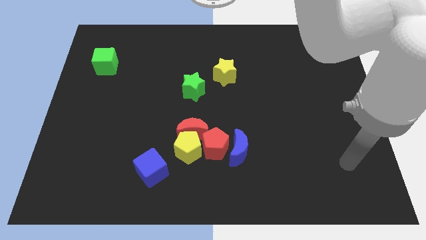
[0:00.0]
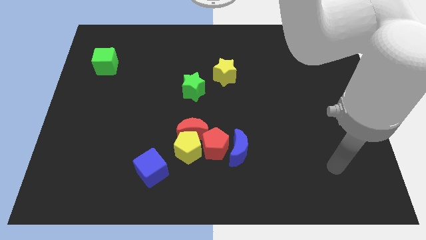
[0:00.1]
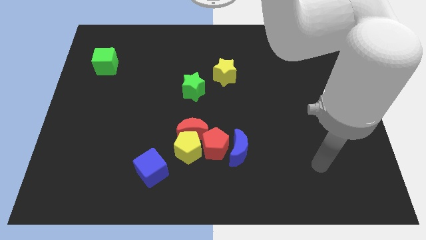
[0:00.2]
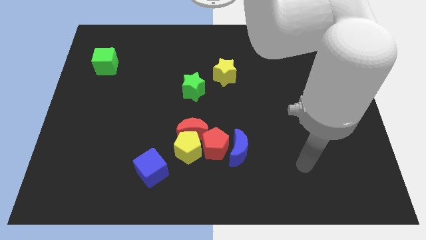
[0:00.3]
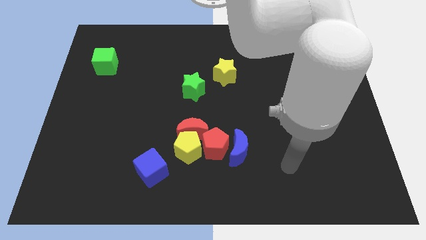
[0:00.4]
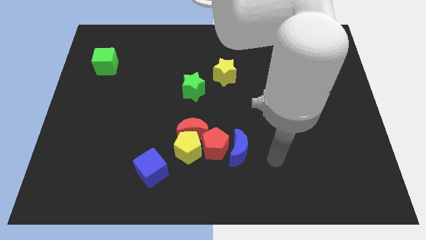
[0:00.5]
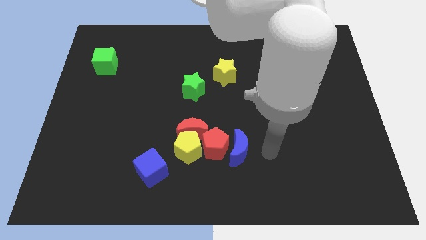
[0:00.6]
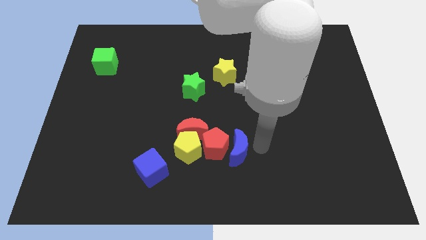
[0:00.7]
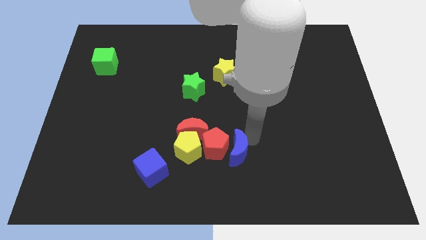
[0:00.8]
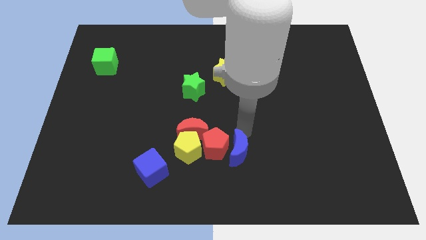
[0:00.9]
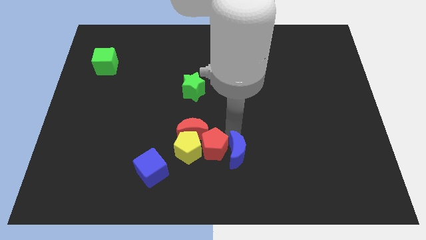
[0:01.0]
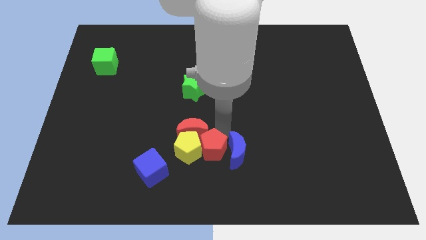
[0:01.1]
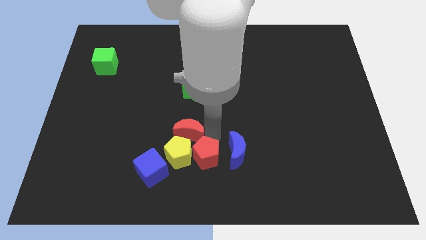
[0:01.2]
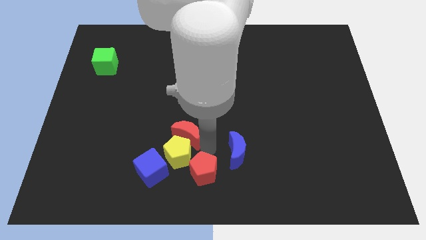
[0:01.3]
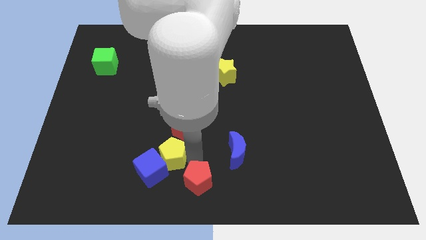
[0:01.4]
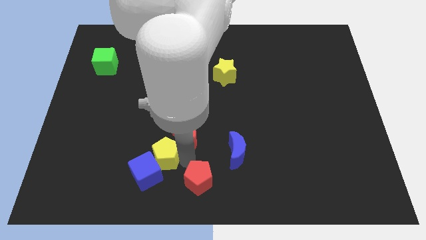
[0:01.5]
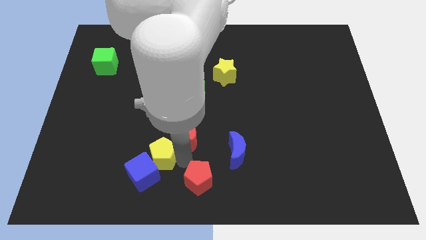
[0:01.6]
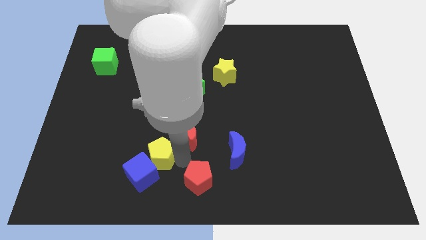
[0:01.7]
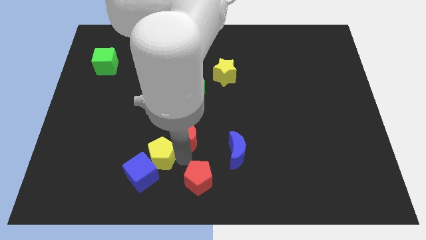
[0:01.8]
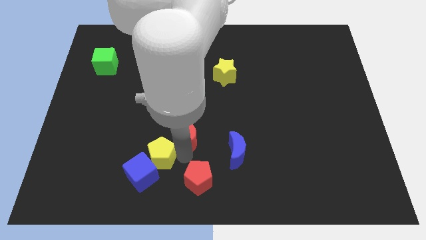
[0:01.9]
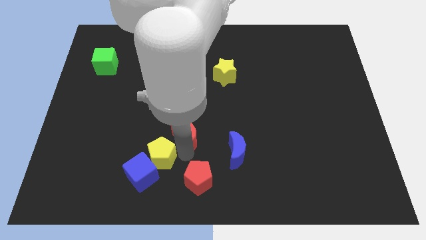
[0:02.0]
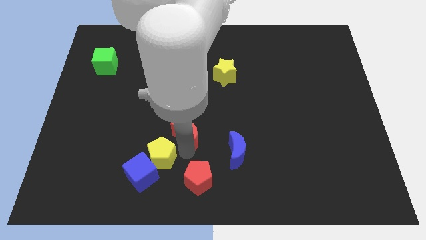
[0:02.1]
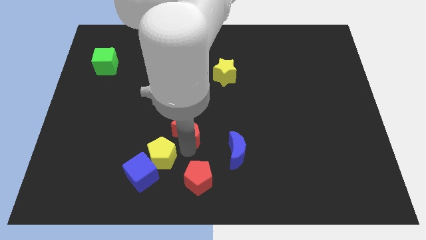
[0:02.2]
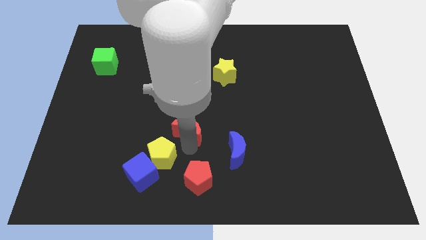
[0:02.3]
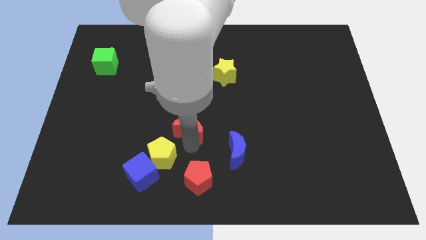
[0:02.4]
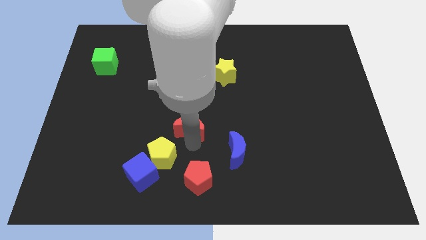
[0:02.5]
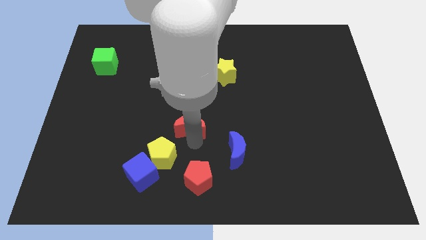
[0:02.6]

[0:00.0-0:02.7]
pull the red moon apart from the yellow pentagon and red pentagon

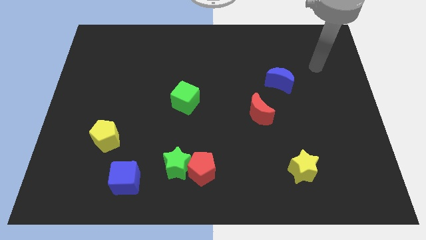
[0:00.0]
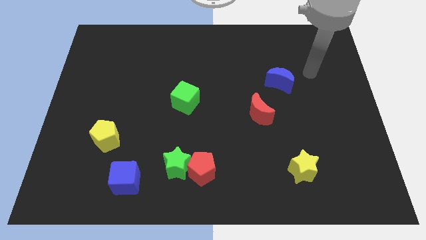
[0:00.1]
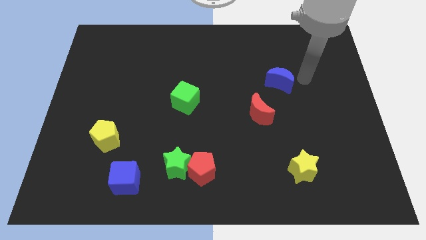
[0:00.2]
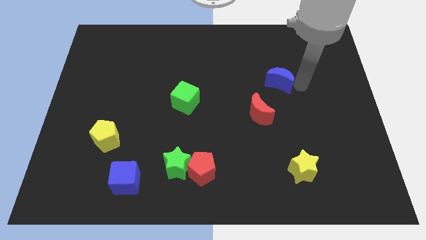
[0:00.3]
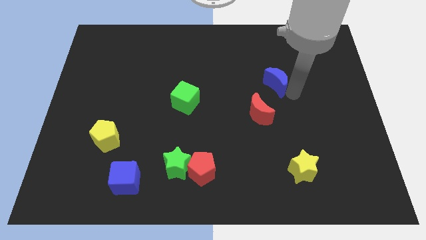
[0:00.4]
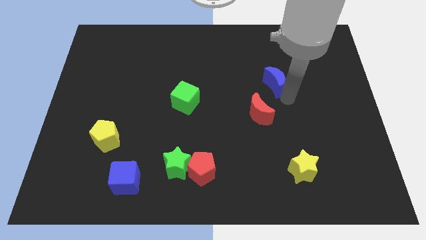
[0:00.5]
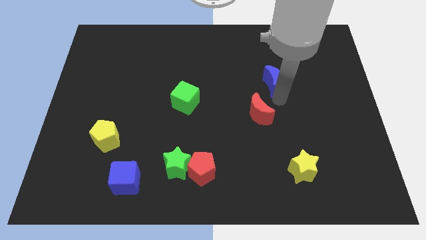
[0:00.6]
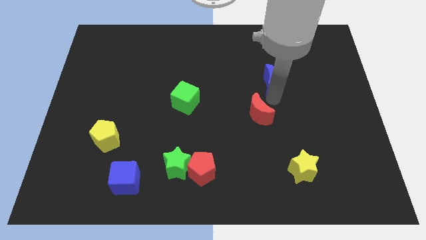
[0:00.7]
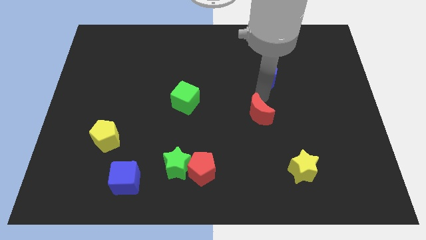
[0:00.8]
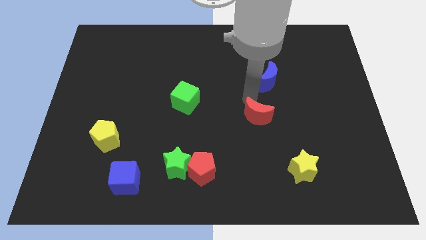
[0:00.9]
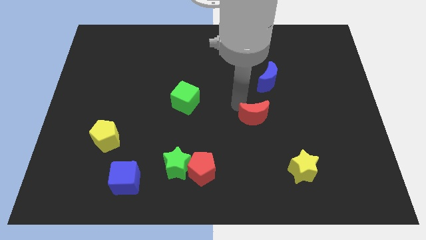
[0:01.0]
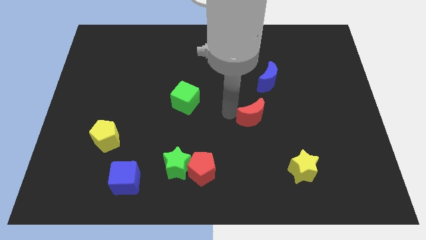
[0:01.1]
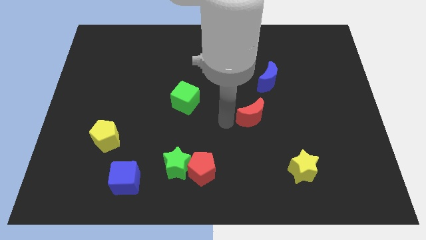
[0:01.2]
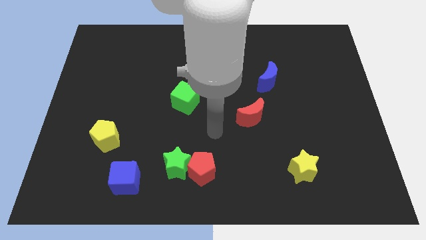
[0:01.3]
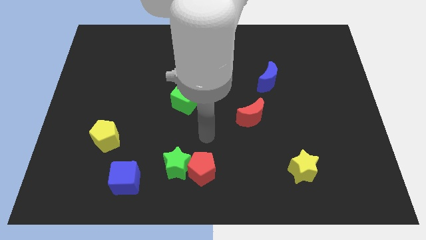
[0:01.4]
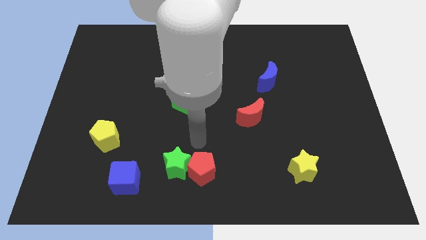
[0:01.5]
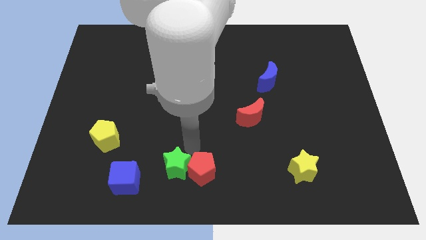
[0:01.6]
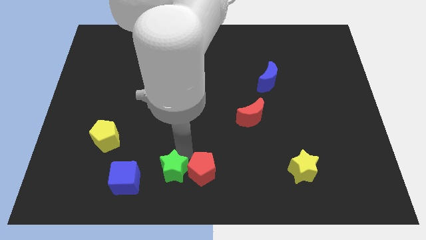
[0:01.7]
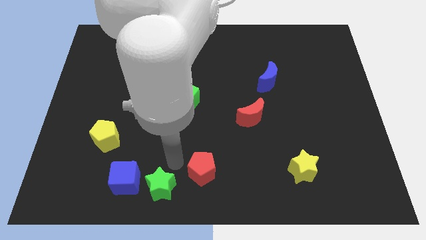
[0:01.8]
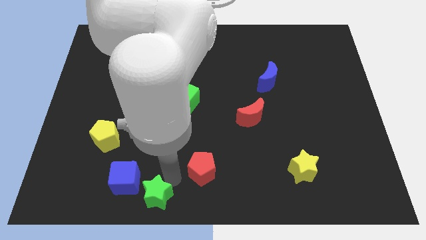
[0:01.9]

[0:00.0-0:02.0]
pull the red pentagon apart from the green star

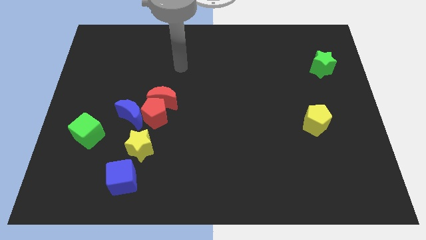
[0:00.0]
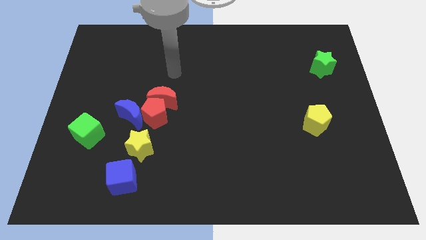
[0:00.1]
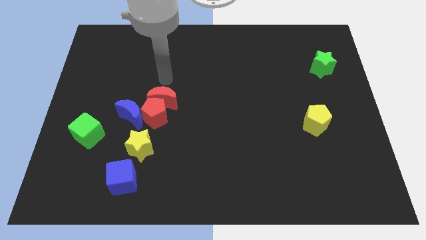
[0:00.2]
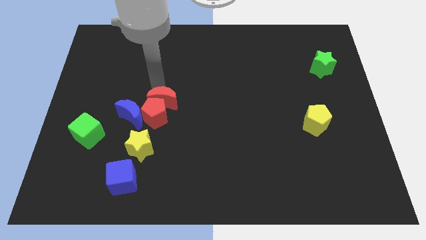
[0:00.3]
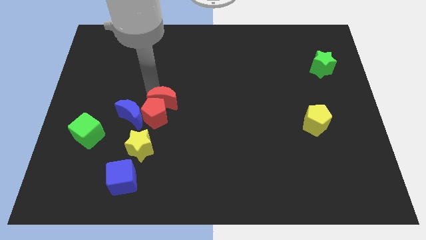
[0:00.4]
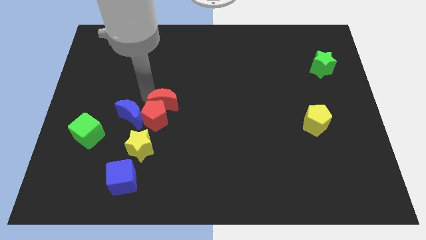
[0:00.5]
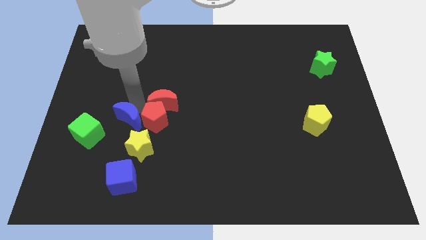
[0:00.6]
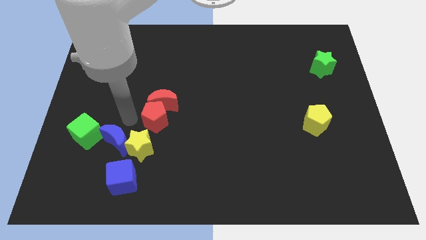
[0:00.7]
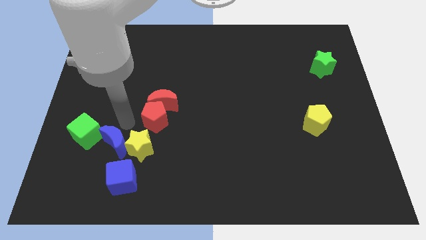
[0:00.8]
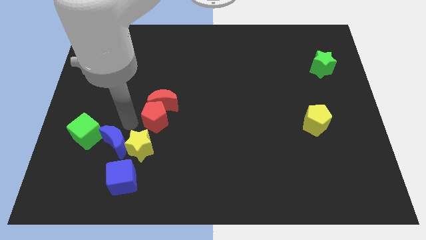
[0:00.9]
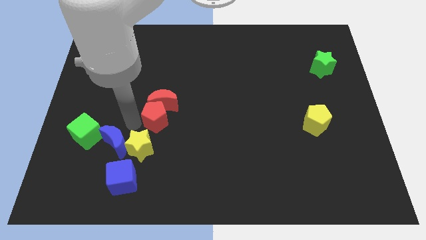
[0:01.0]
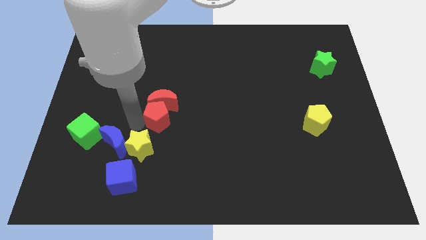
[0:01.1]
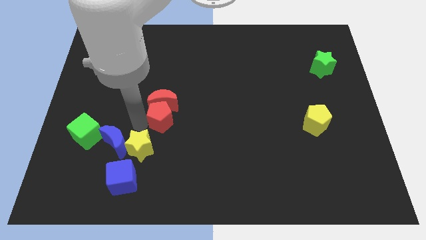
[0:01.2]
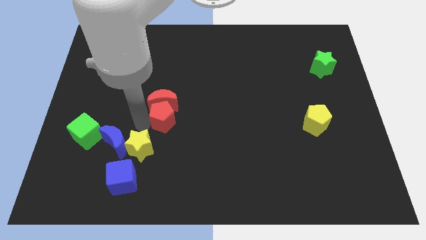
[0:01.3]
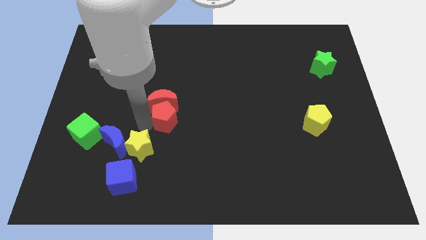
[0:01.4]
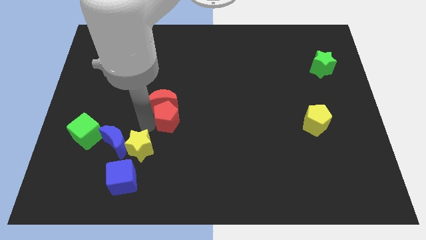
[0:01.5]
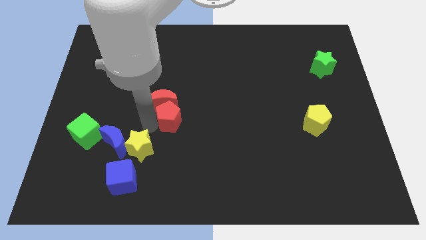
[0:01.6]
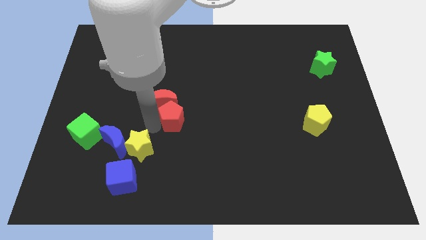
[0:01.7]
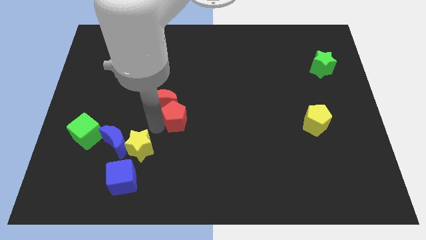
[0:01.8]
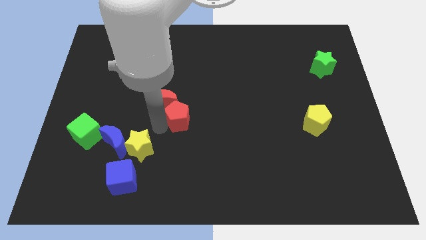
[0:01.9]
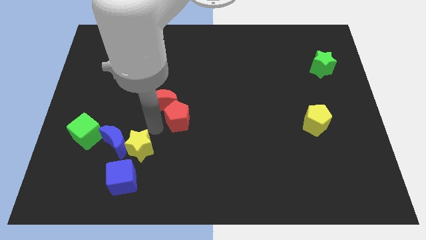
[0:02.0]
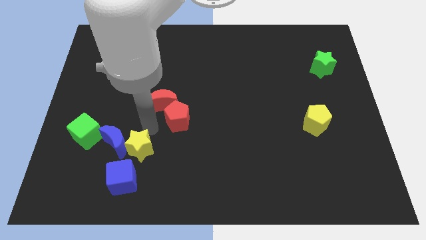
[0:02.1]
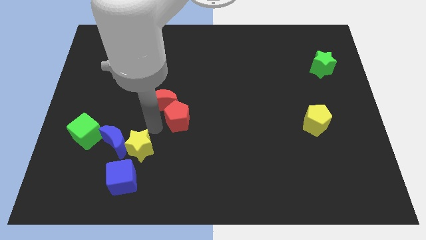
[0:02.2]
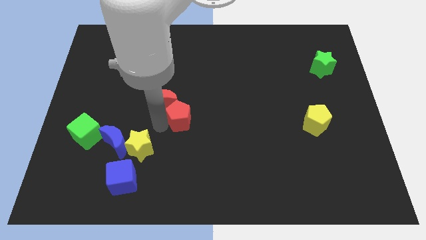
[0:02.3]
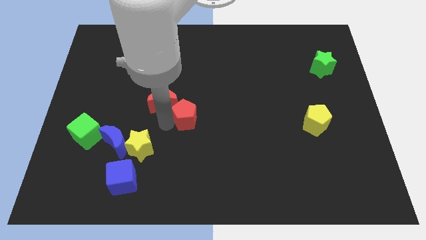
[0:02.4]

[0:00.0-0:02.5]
pull the red pentagon apart from the red moon, blue moon, and yellow star

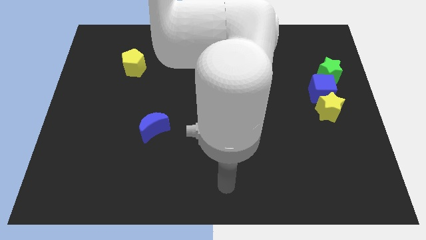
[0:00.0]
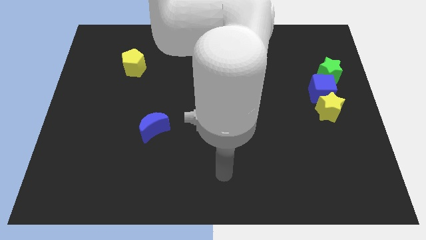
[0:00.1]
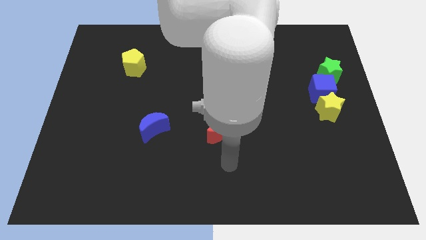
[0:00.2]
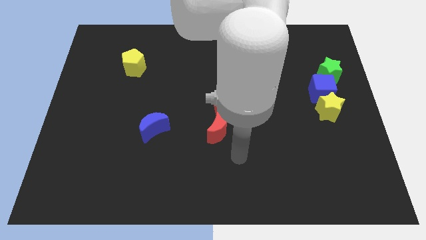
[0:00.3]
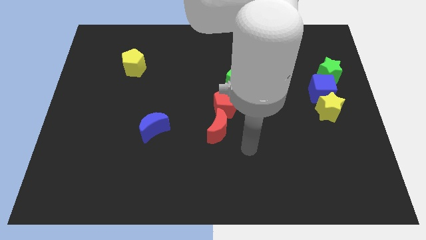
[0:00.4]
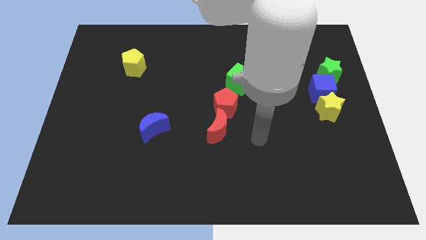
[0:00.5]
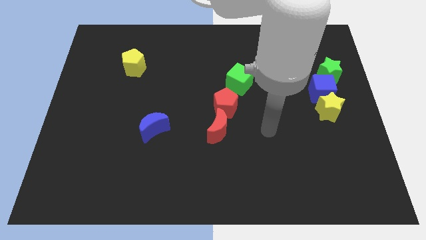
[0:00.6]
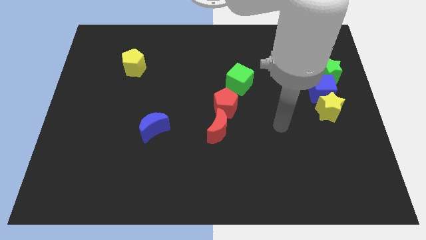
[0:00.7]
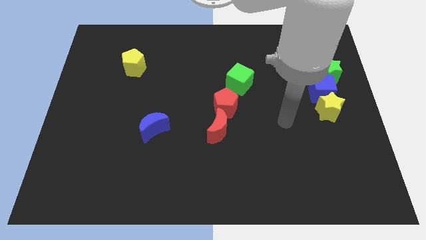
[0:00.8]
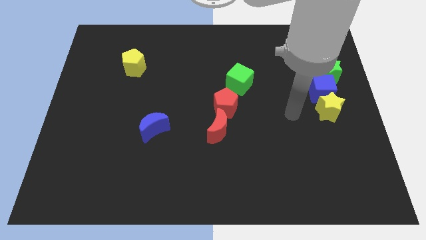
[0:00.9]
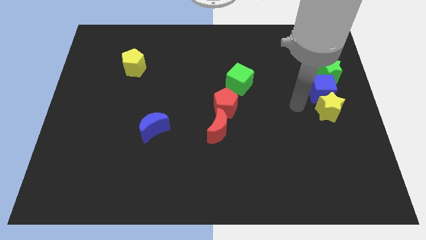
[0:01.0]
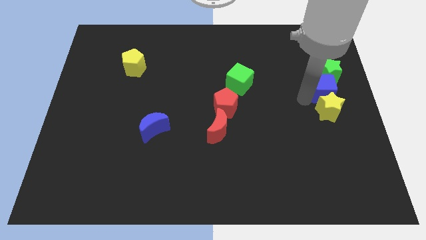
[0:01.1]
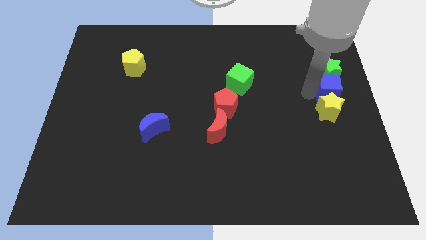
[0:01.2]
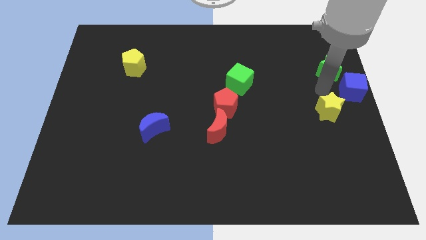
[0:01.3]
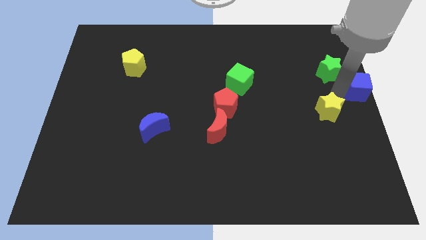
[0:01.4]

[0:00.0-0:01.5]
separate the yellow star from the blue cube

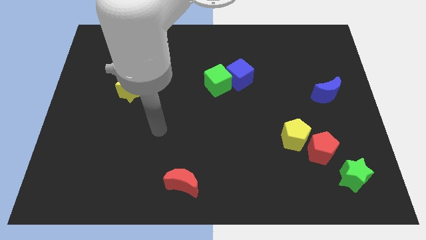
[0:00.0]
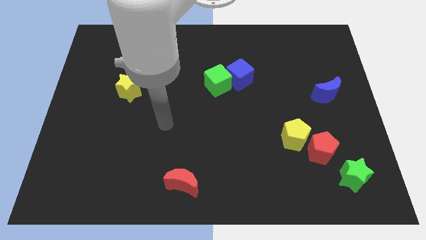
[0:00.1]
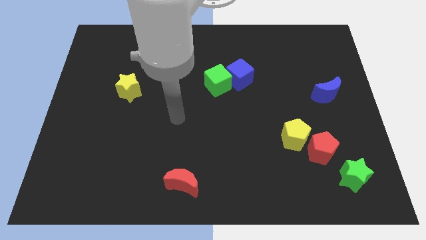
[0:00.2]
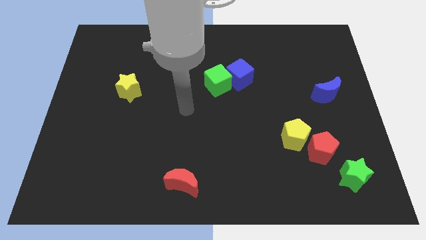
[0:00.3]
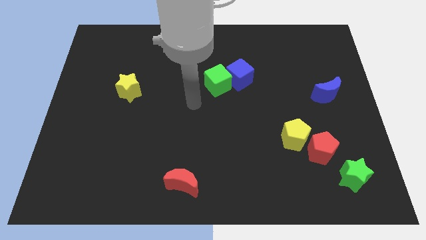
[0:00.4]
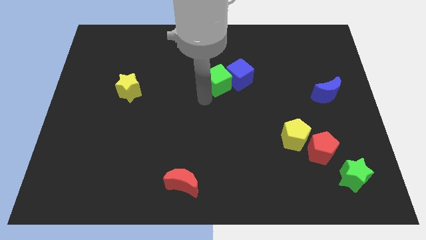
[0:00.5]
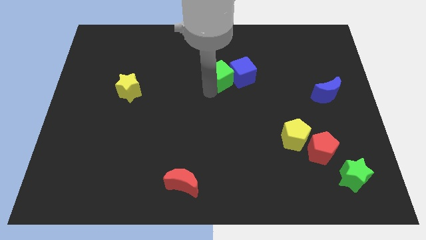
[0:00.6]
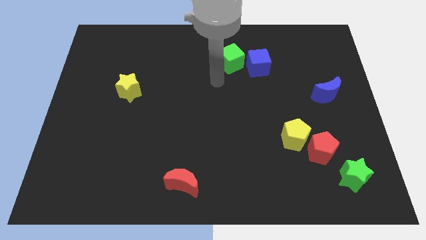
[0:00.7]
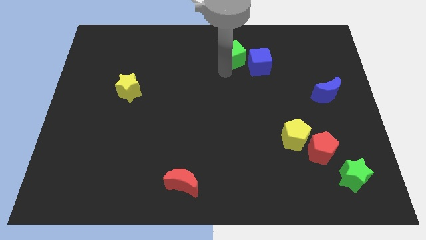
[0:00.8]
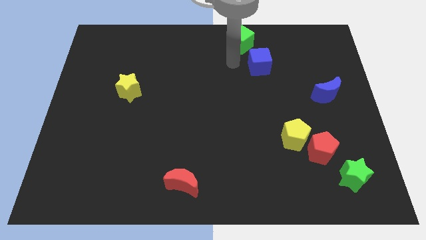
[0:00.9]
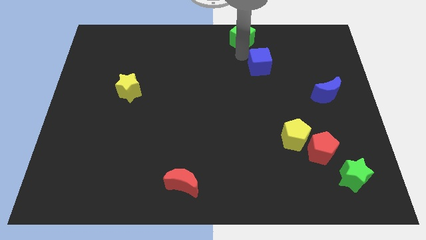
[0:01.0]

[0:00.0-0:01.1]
move the blue cube away from the green cube
